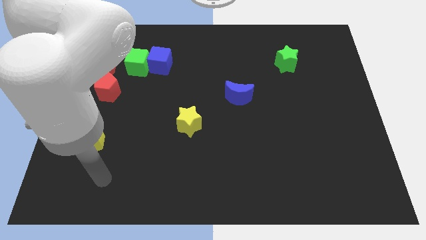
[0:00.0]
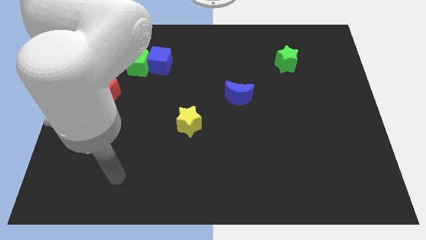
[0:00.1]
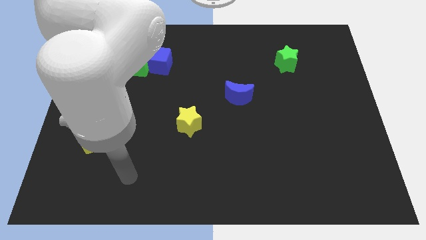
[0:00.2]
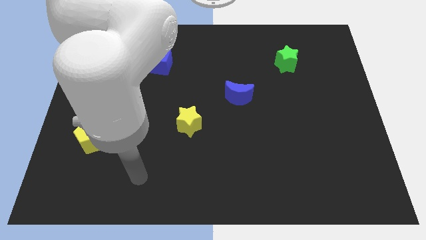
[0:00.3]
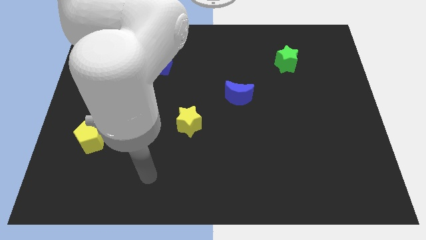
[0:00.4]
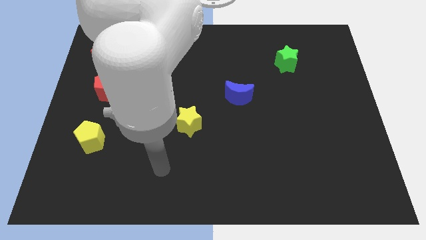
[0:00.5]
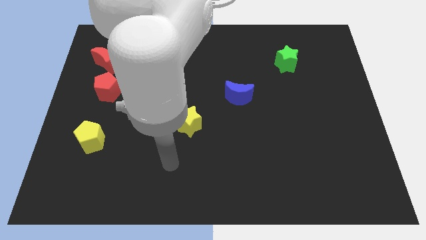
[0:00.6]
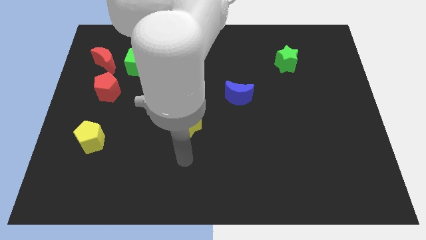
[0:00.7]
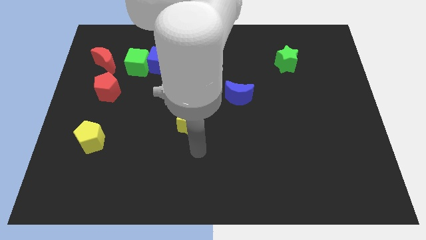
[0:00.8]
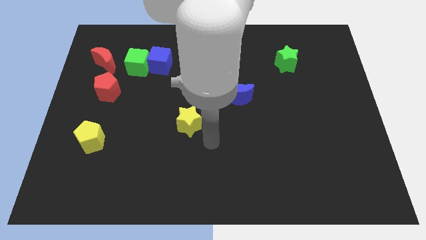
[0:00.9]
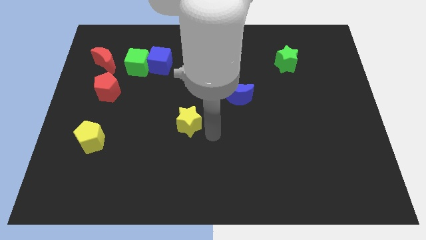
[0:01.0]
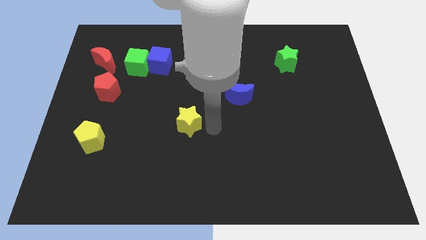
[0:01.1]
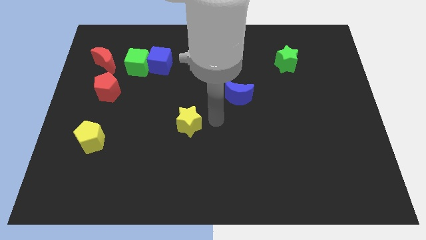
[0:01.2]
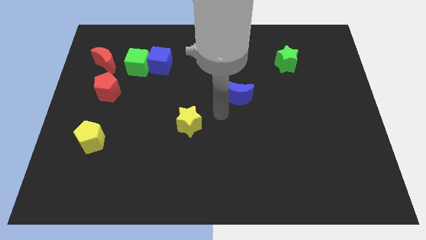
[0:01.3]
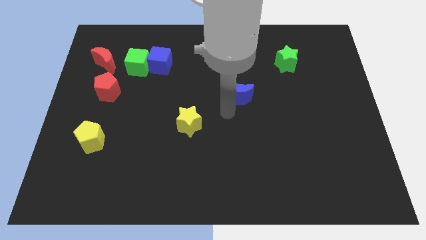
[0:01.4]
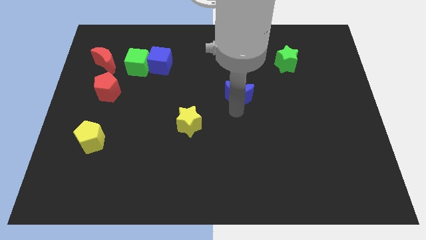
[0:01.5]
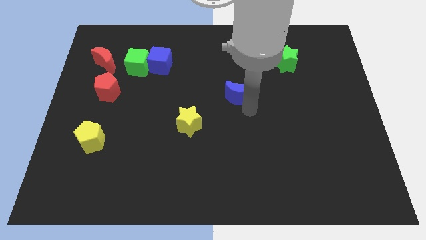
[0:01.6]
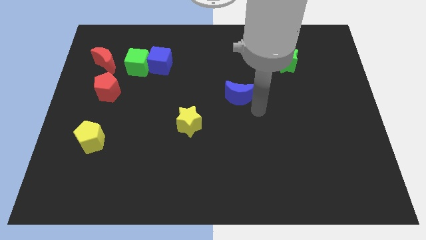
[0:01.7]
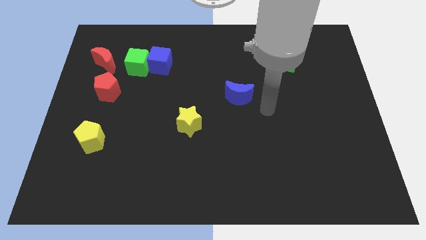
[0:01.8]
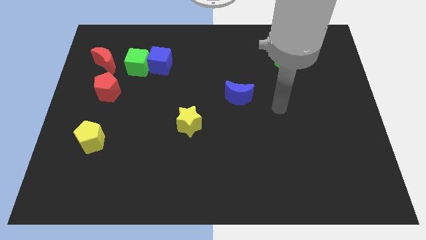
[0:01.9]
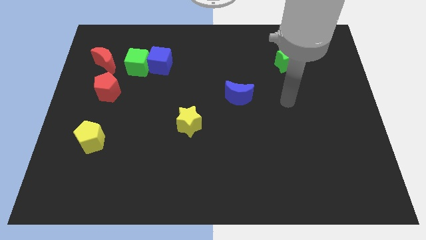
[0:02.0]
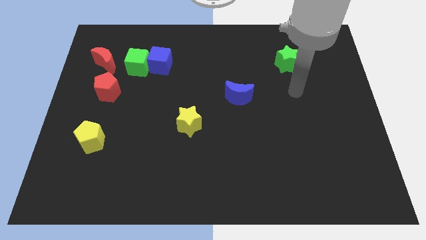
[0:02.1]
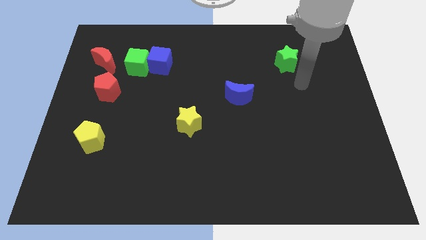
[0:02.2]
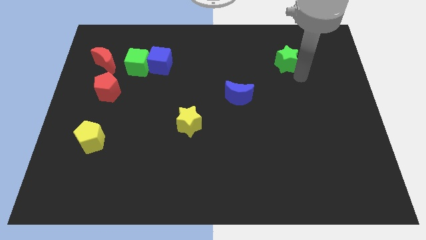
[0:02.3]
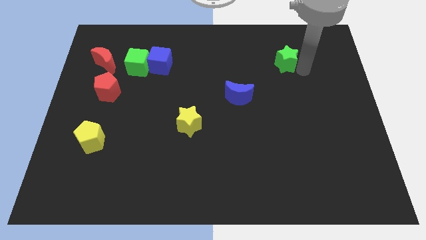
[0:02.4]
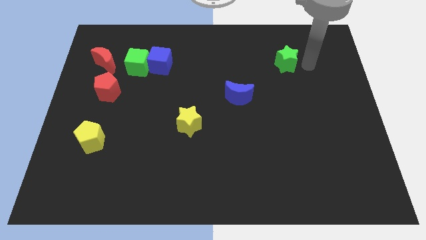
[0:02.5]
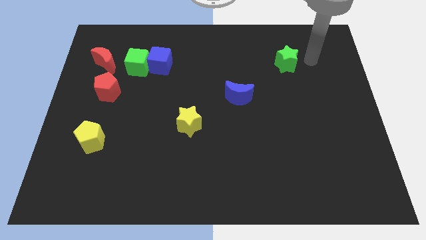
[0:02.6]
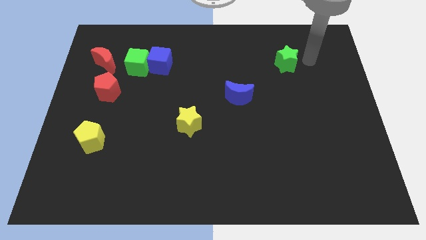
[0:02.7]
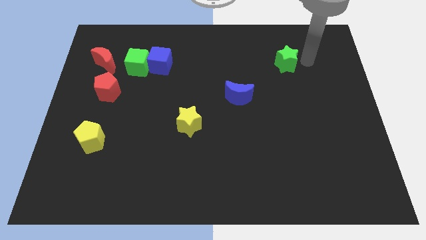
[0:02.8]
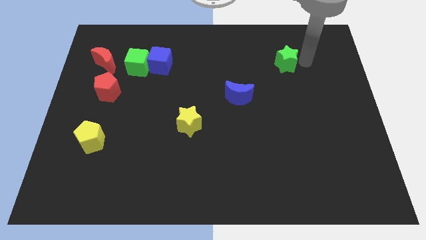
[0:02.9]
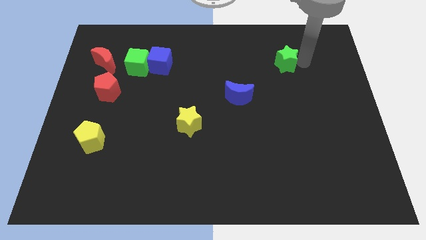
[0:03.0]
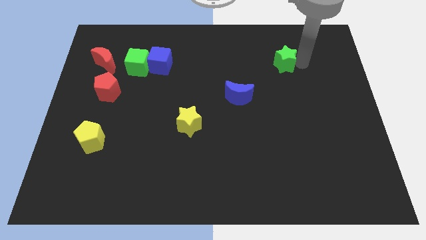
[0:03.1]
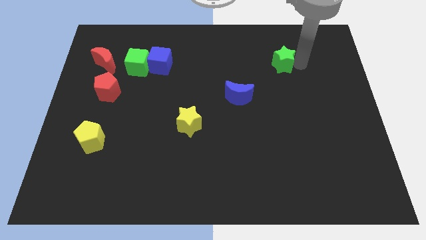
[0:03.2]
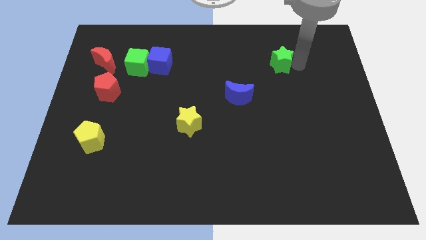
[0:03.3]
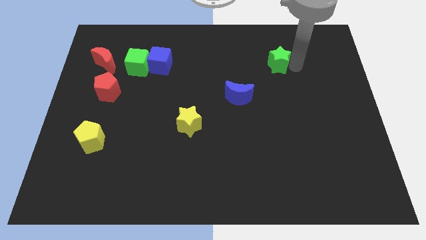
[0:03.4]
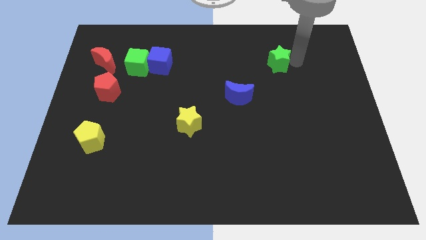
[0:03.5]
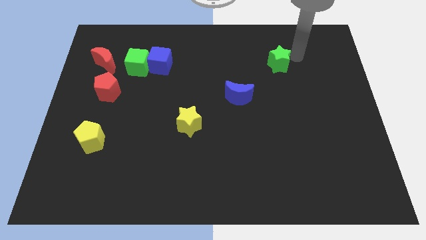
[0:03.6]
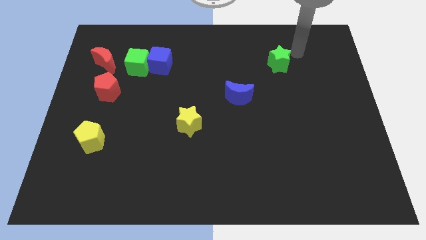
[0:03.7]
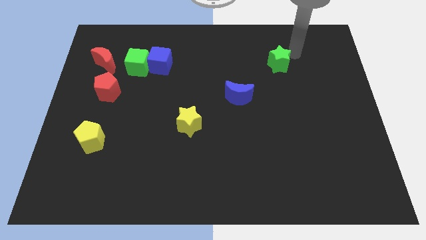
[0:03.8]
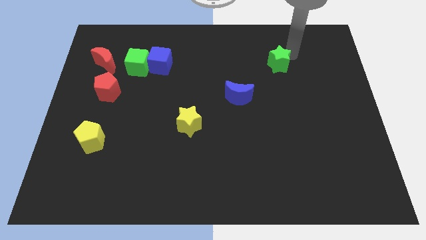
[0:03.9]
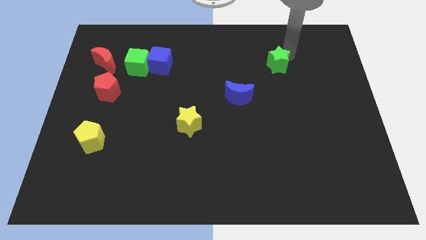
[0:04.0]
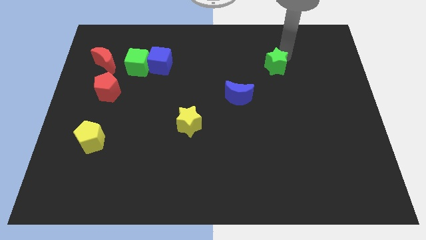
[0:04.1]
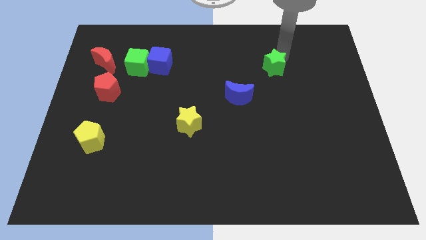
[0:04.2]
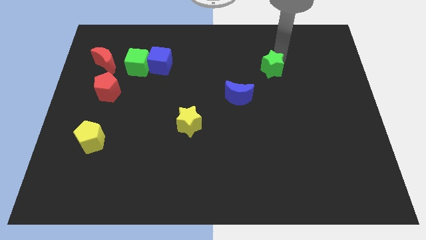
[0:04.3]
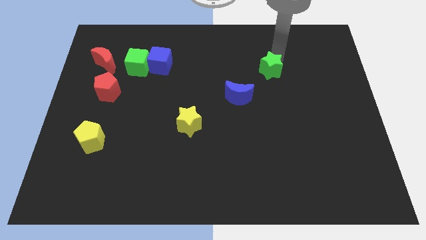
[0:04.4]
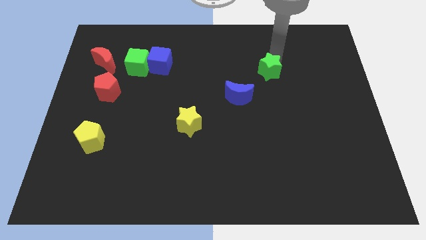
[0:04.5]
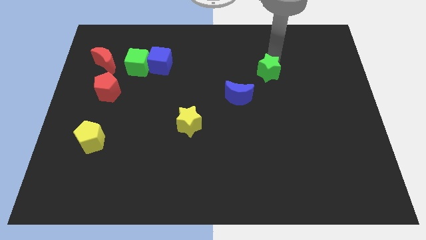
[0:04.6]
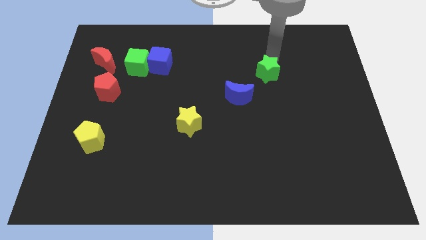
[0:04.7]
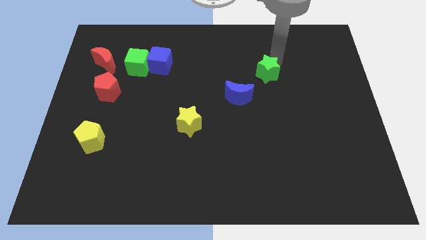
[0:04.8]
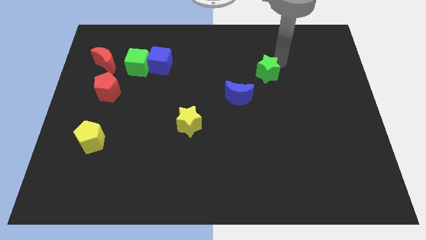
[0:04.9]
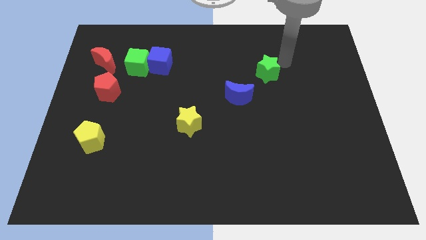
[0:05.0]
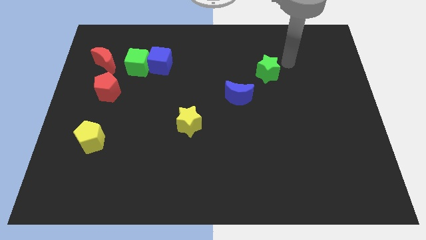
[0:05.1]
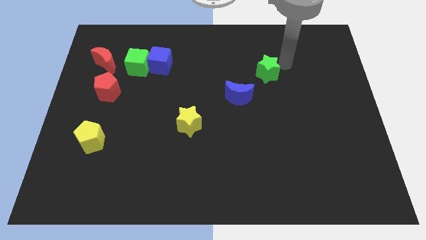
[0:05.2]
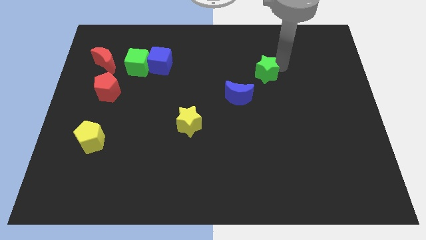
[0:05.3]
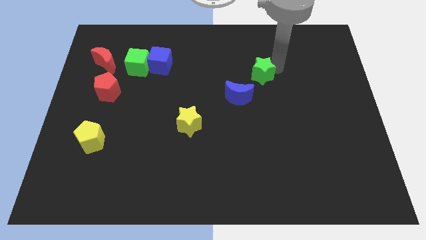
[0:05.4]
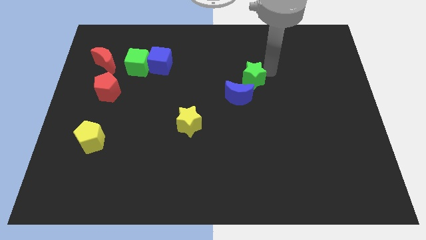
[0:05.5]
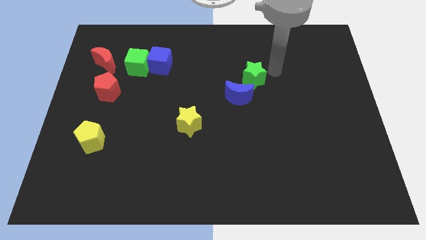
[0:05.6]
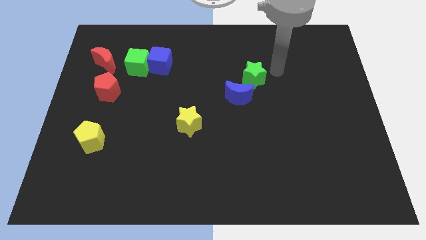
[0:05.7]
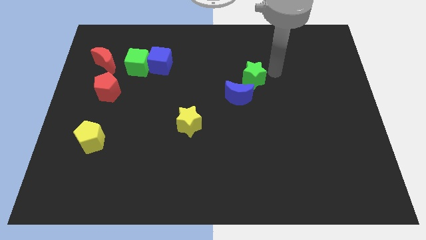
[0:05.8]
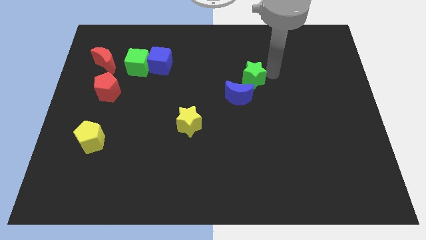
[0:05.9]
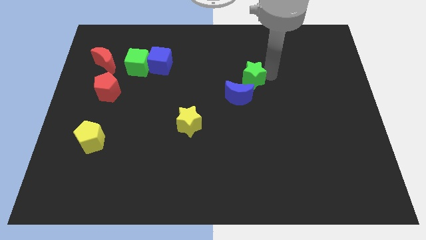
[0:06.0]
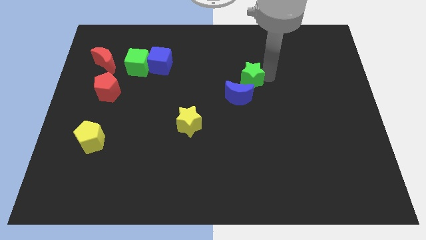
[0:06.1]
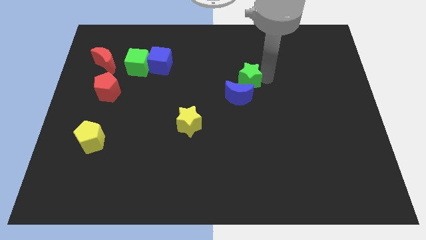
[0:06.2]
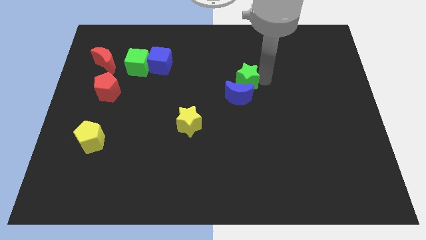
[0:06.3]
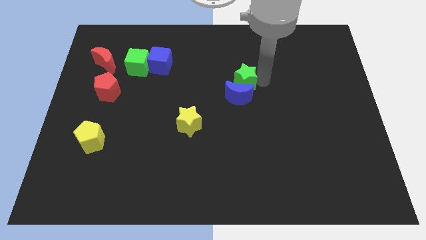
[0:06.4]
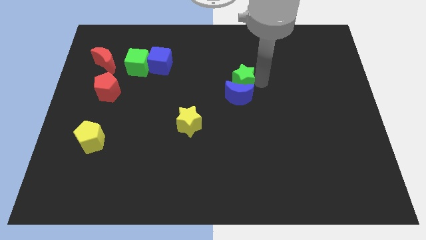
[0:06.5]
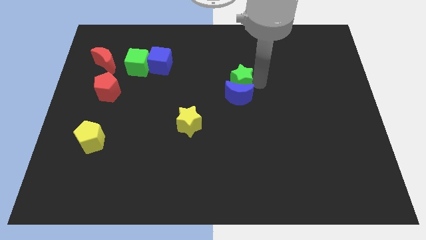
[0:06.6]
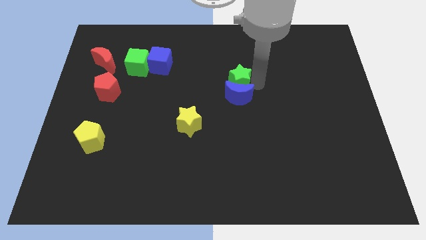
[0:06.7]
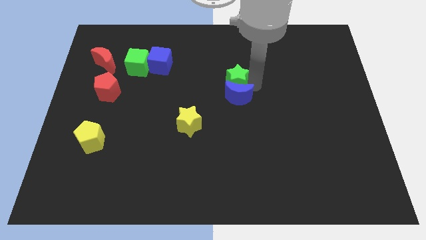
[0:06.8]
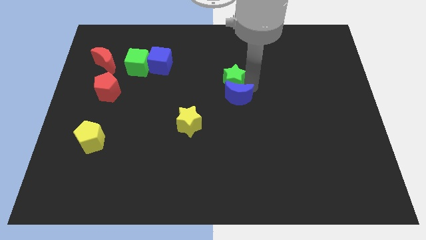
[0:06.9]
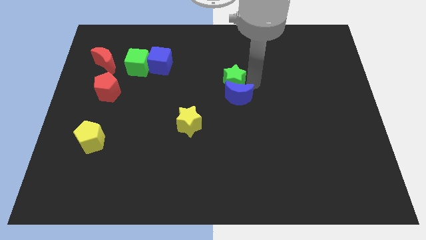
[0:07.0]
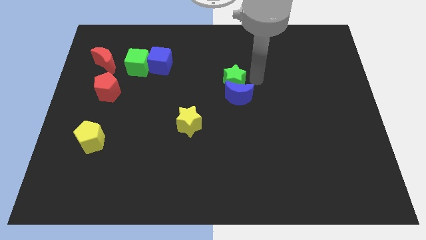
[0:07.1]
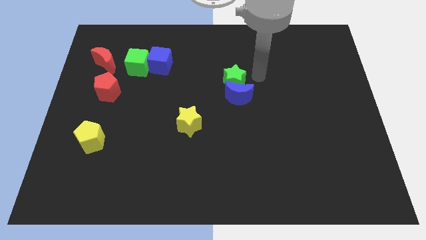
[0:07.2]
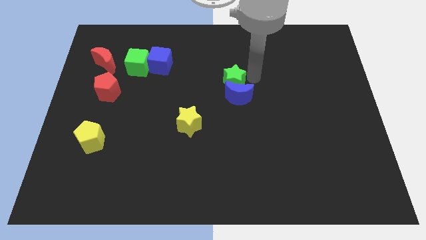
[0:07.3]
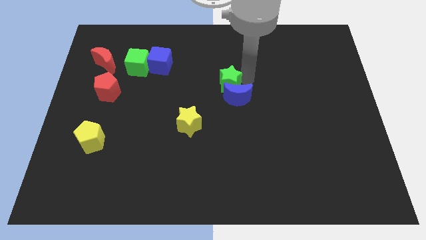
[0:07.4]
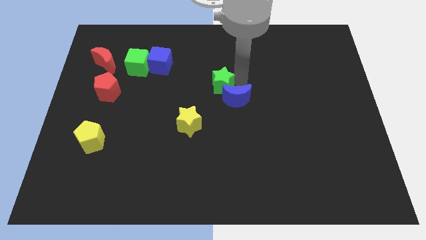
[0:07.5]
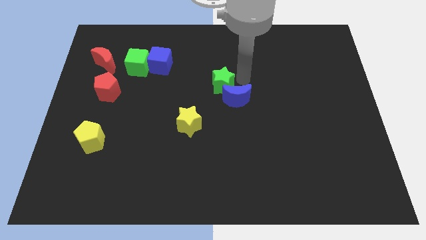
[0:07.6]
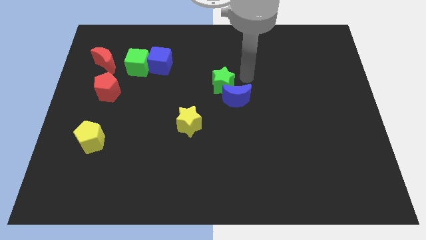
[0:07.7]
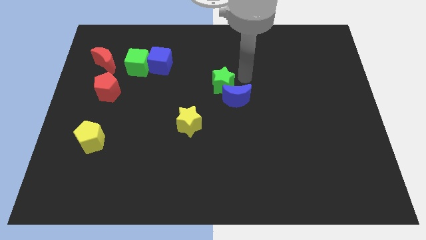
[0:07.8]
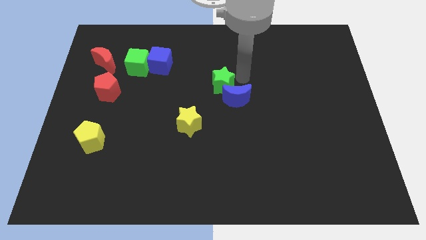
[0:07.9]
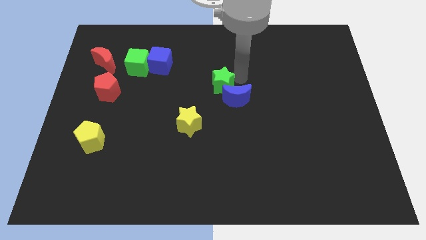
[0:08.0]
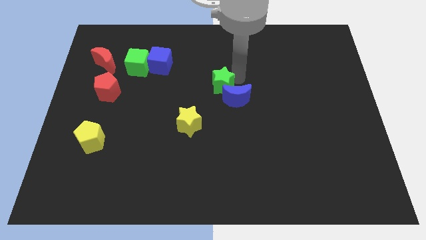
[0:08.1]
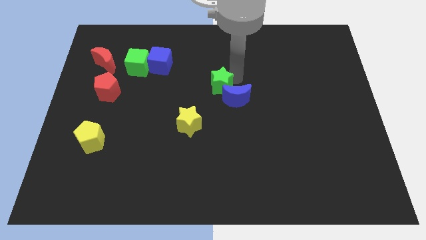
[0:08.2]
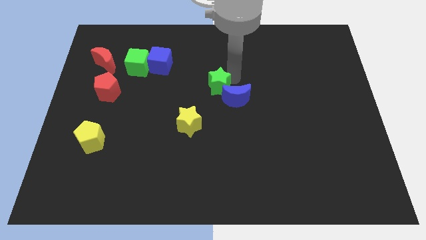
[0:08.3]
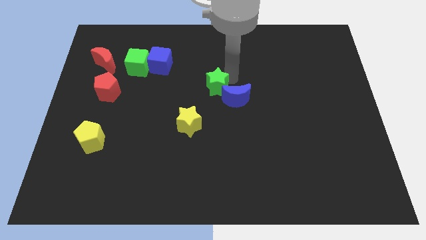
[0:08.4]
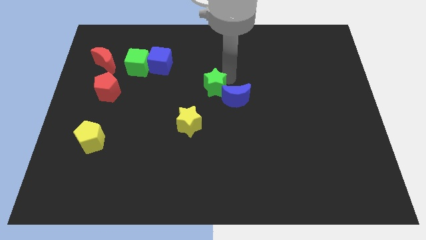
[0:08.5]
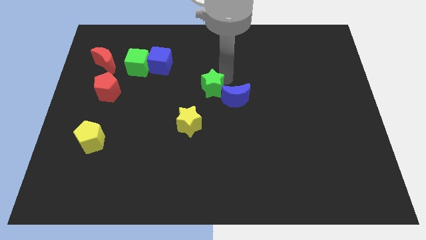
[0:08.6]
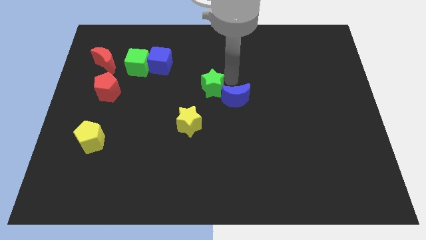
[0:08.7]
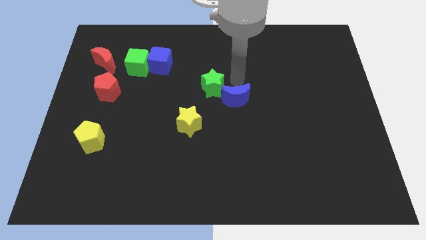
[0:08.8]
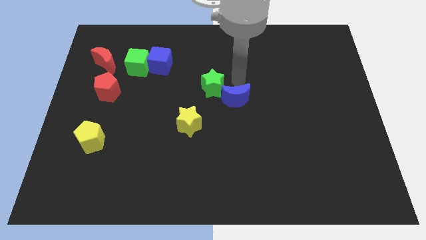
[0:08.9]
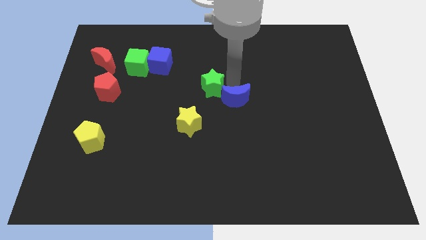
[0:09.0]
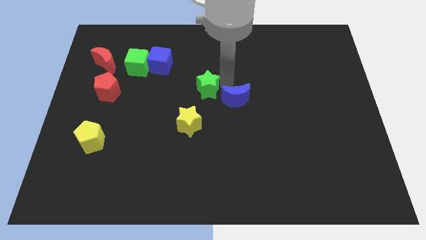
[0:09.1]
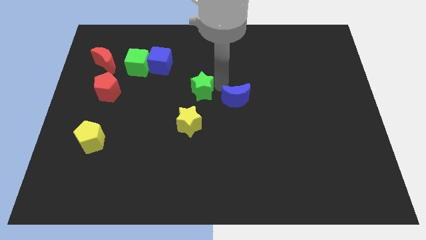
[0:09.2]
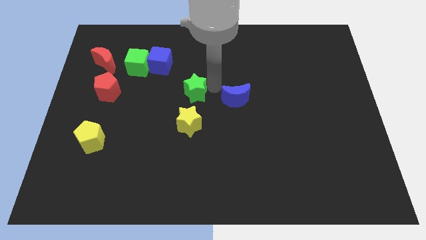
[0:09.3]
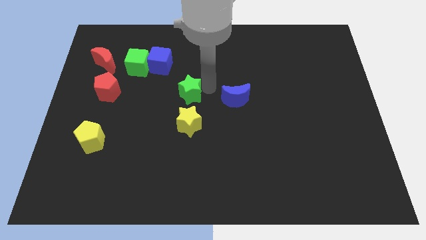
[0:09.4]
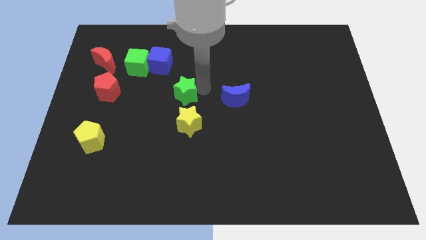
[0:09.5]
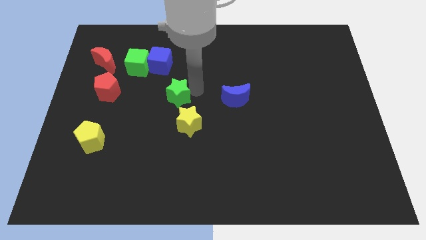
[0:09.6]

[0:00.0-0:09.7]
slide the green star to the top left side of the yellow star
